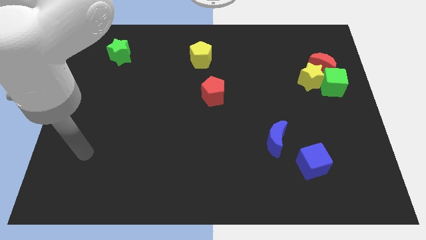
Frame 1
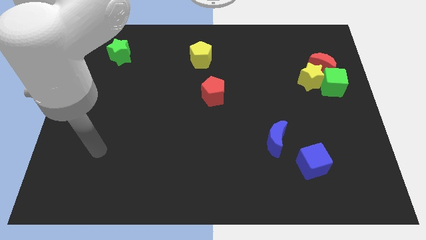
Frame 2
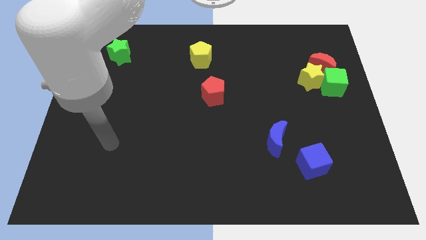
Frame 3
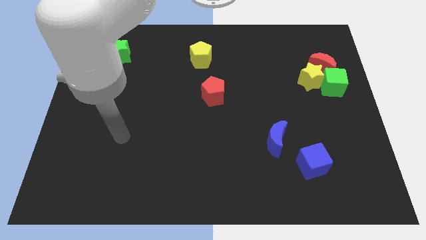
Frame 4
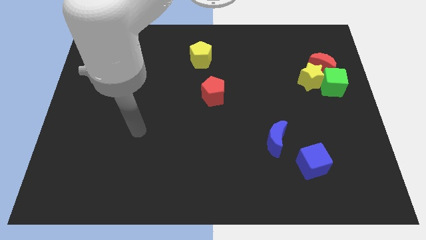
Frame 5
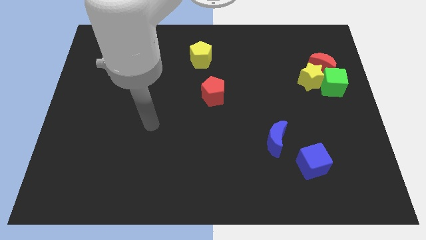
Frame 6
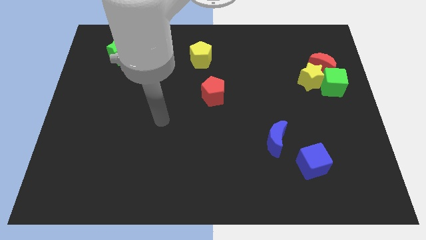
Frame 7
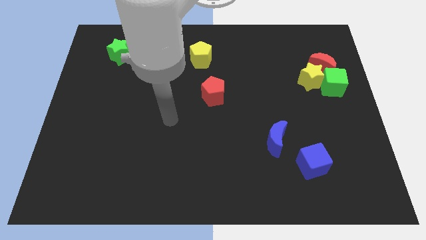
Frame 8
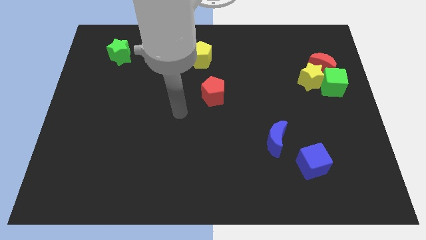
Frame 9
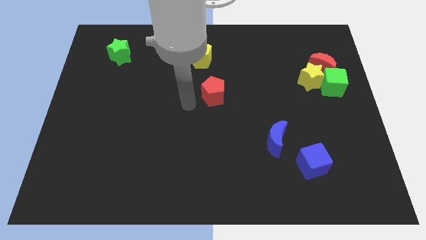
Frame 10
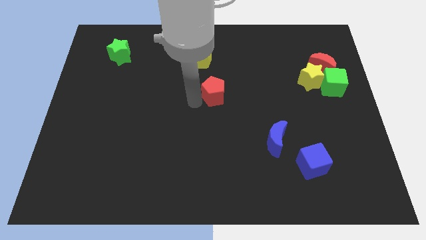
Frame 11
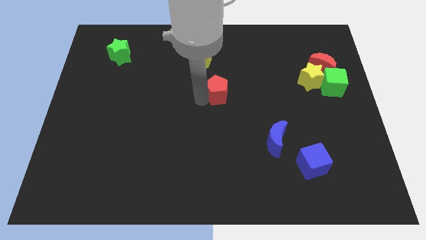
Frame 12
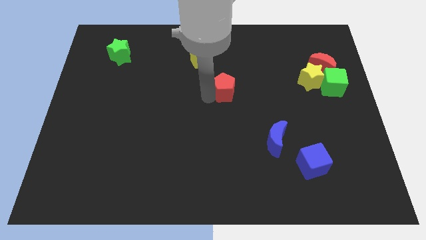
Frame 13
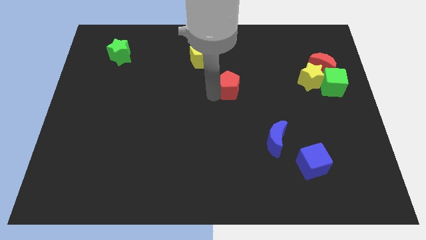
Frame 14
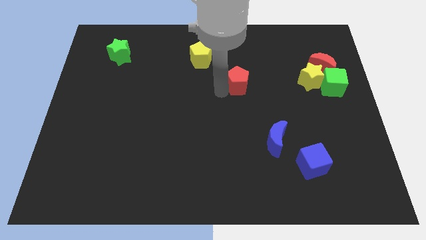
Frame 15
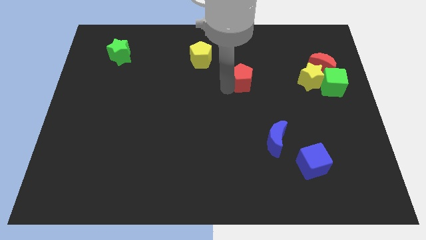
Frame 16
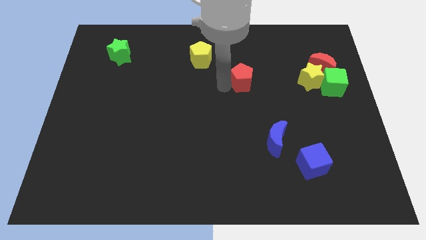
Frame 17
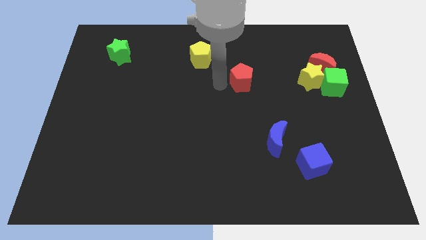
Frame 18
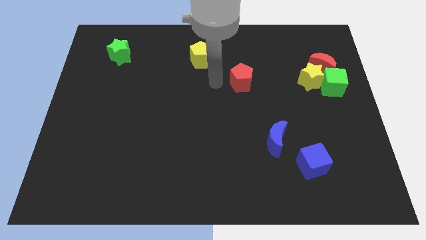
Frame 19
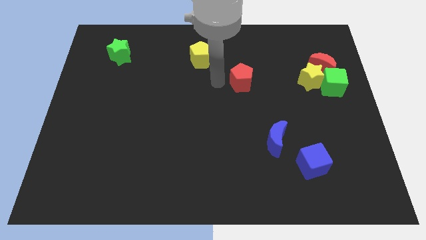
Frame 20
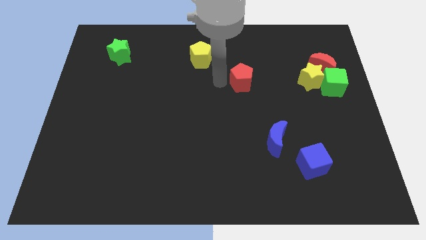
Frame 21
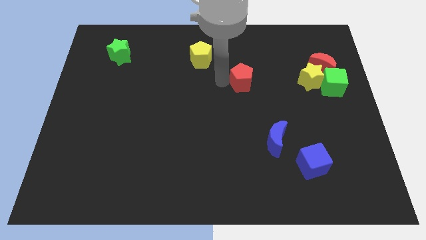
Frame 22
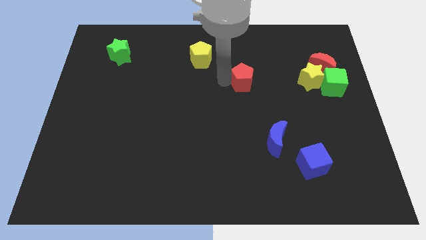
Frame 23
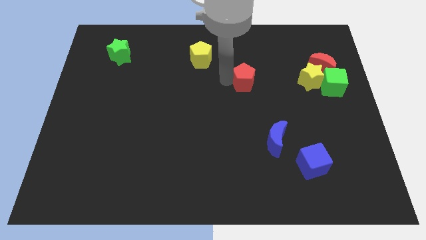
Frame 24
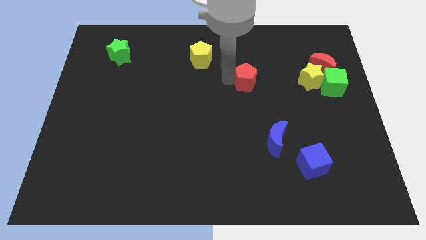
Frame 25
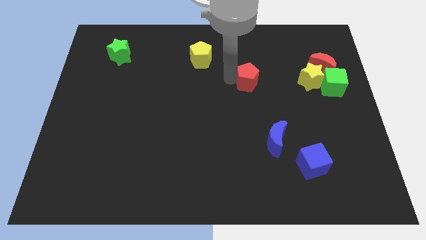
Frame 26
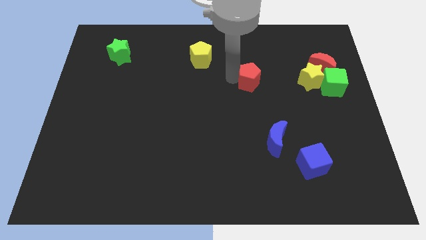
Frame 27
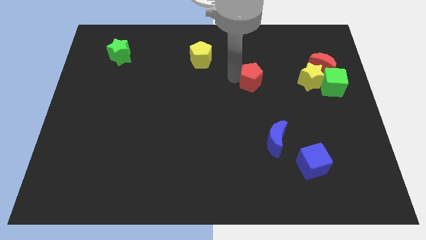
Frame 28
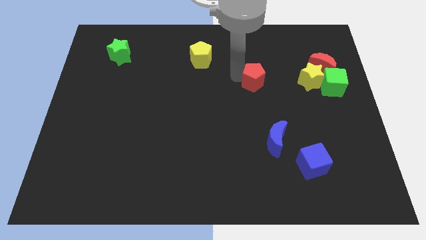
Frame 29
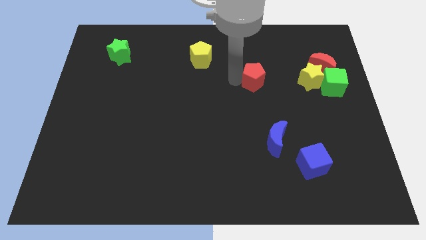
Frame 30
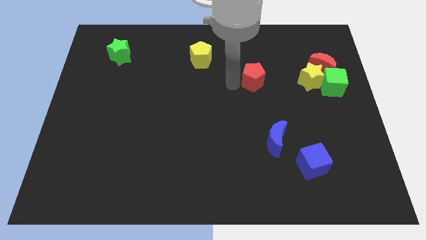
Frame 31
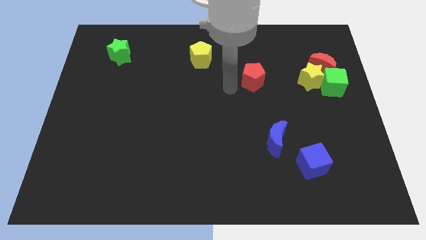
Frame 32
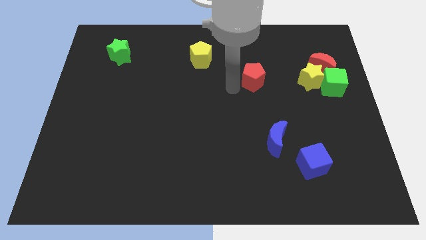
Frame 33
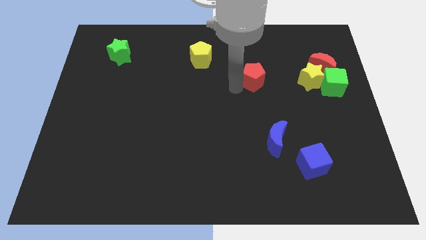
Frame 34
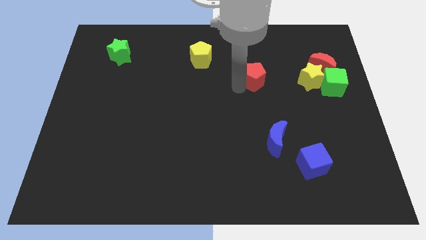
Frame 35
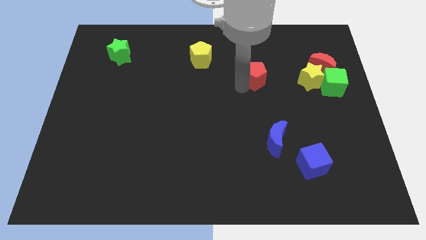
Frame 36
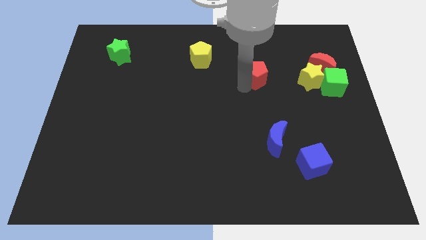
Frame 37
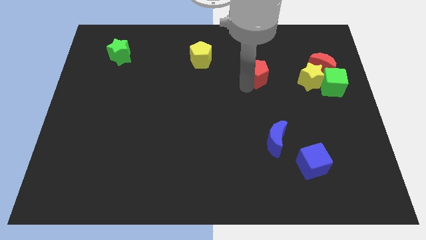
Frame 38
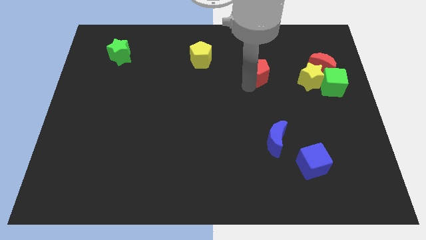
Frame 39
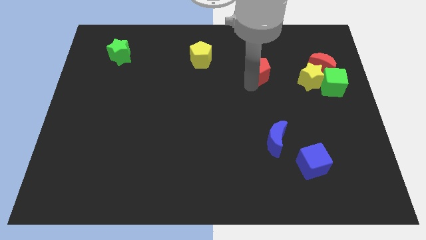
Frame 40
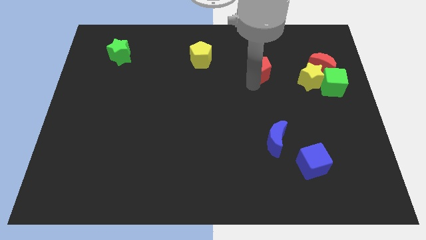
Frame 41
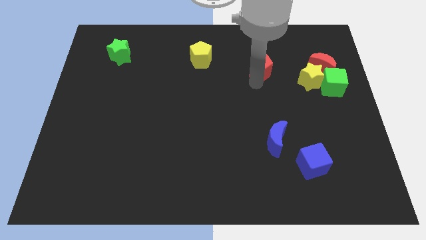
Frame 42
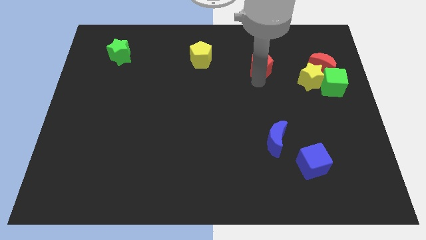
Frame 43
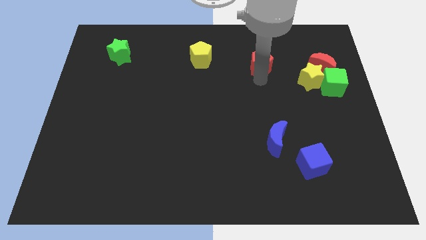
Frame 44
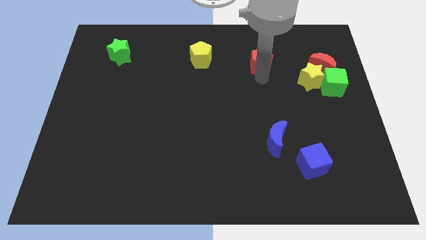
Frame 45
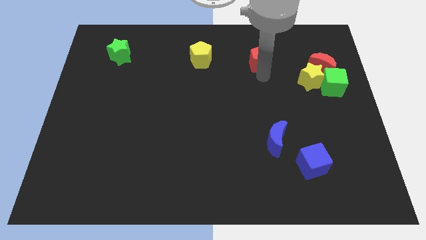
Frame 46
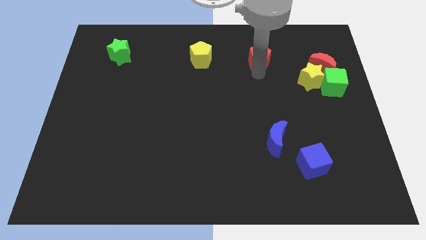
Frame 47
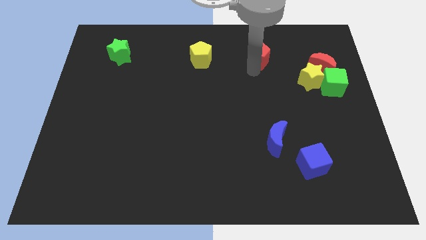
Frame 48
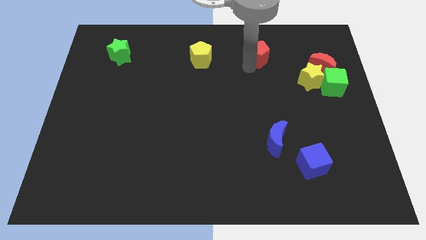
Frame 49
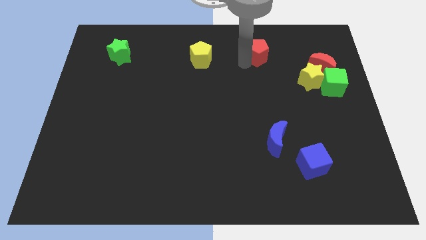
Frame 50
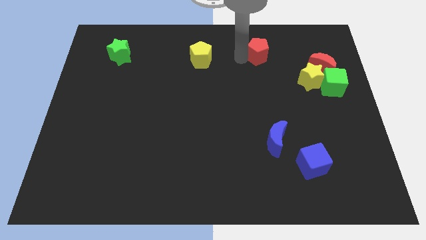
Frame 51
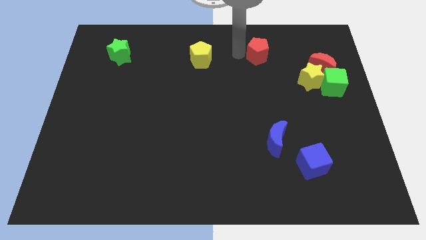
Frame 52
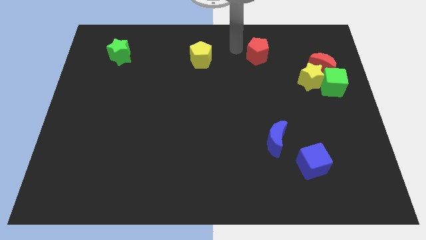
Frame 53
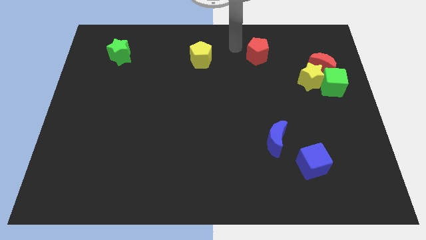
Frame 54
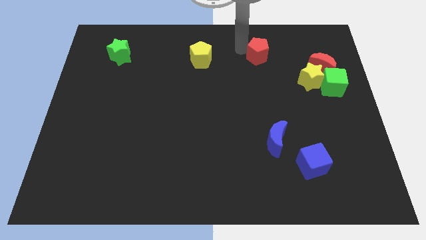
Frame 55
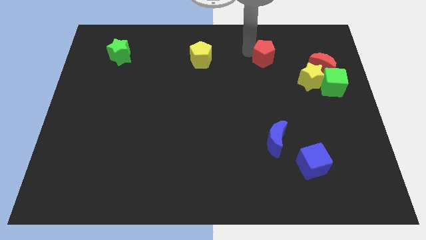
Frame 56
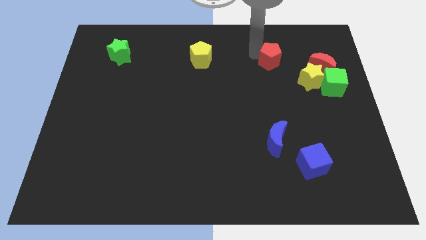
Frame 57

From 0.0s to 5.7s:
put the red pentagon diagonally up and to the left of the yellow star

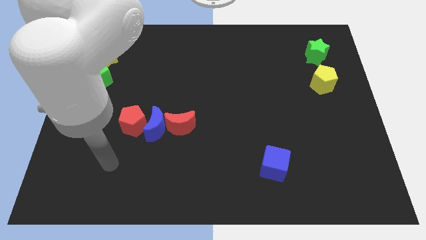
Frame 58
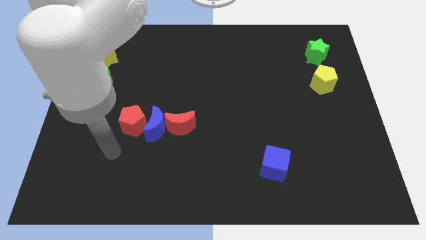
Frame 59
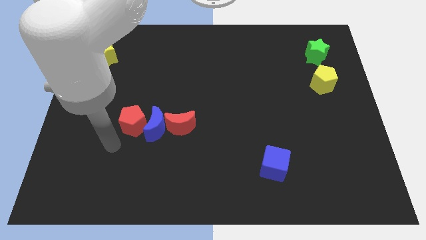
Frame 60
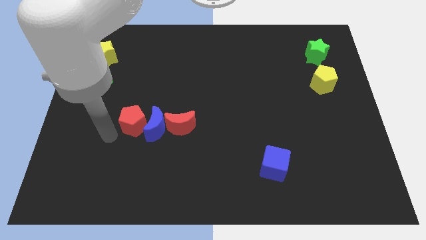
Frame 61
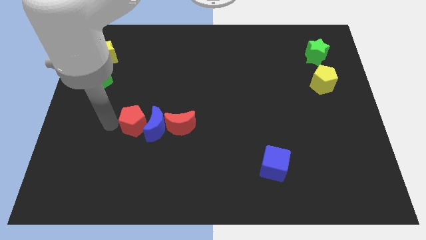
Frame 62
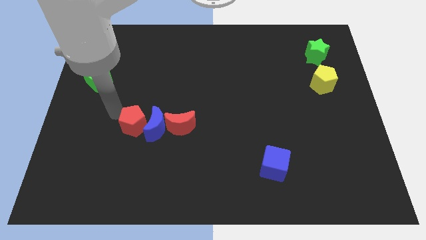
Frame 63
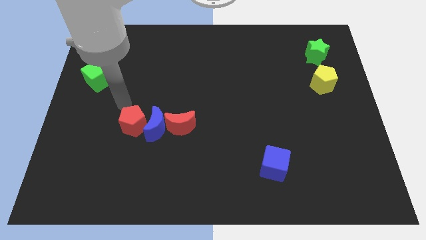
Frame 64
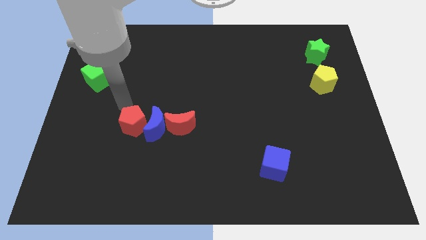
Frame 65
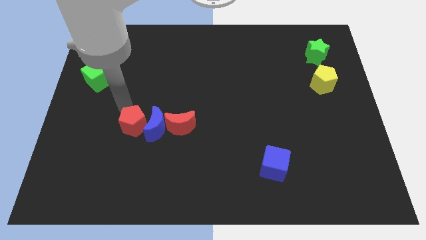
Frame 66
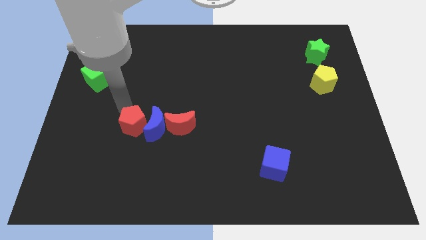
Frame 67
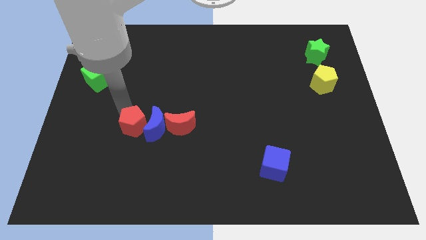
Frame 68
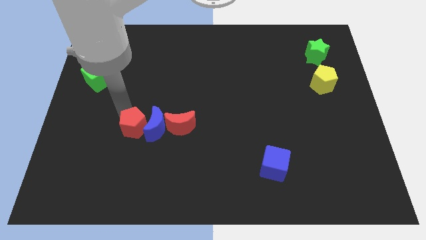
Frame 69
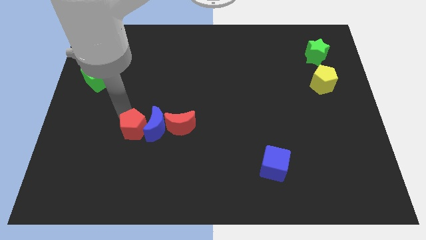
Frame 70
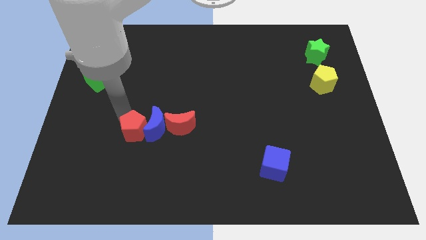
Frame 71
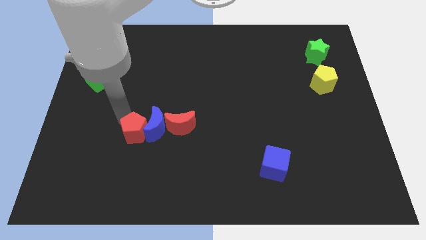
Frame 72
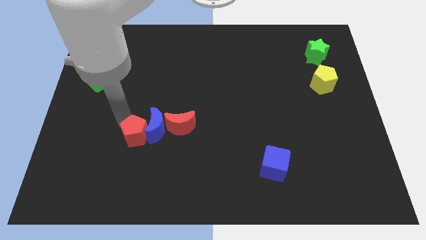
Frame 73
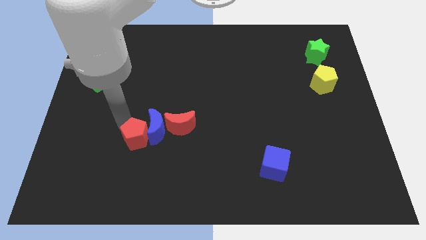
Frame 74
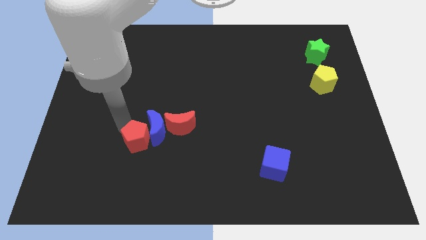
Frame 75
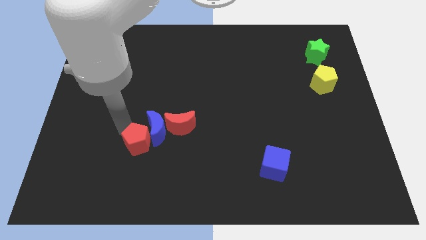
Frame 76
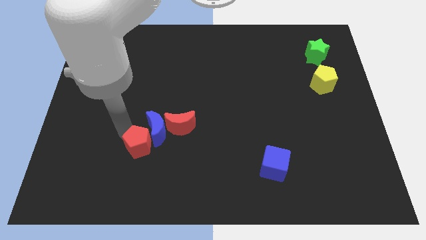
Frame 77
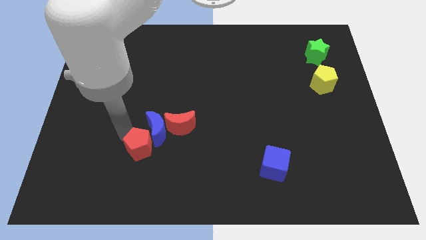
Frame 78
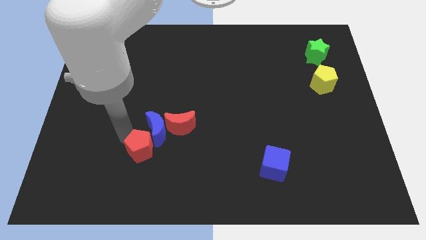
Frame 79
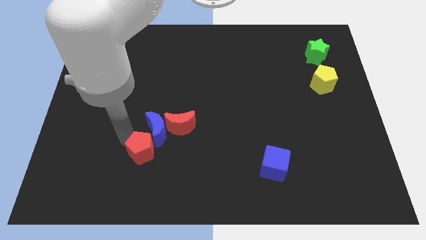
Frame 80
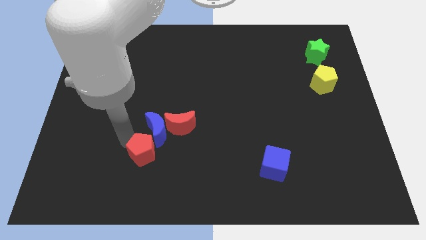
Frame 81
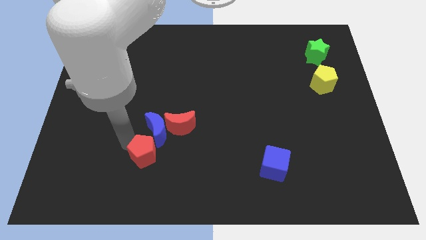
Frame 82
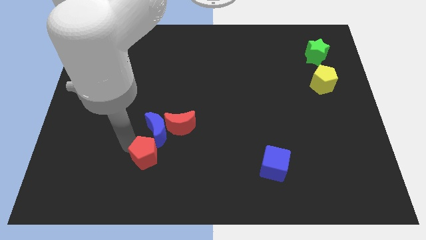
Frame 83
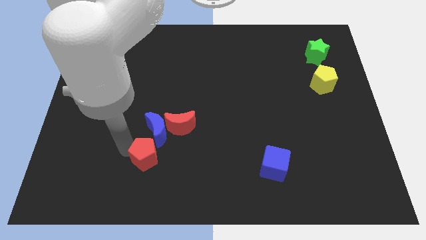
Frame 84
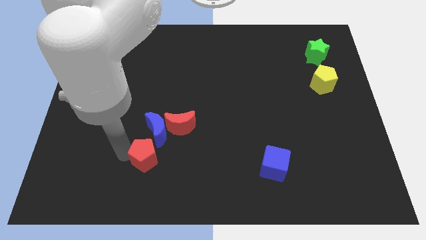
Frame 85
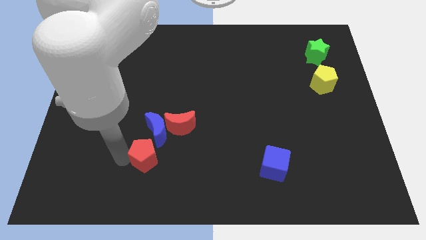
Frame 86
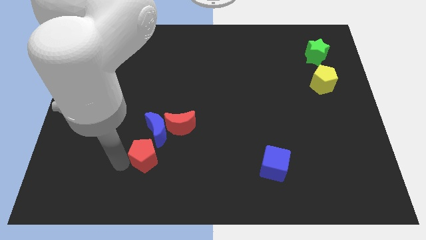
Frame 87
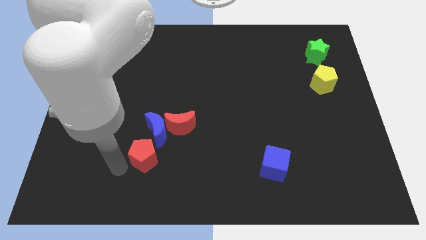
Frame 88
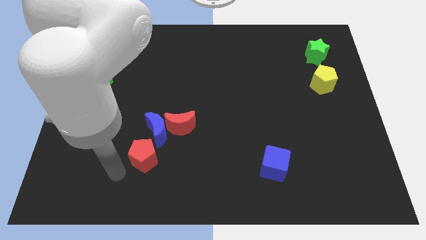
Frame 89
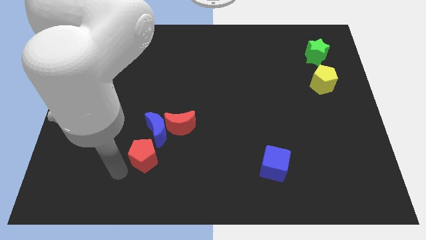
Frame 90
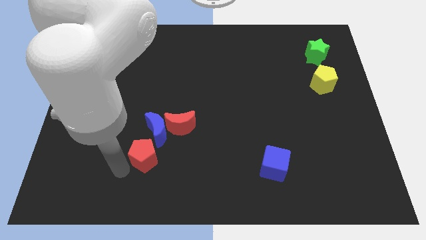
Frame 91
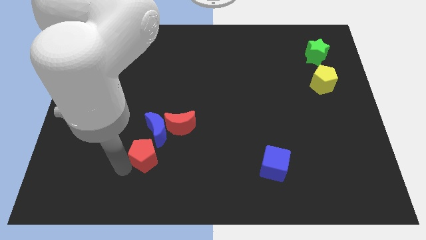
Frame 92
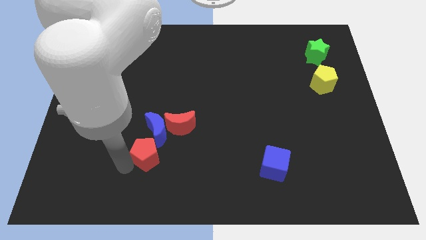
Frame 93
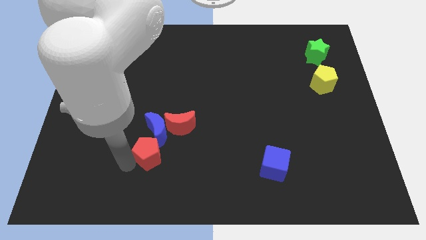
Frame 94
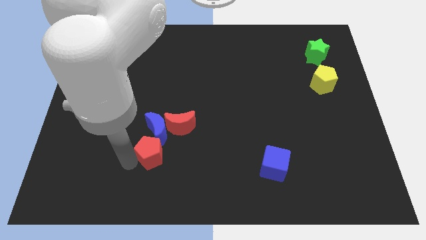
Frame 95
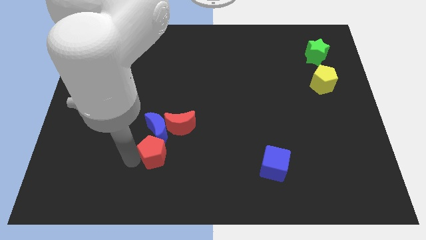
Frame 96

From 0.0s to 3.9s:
slide the red pentagon to the bottom right of the blue moon
